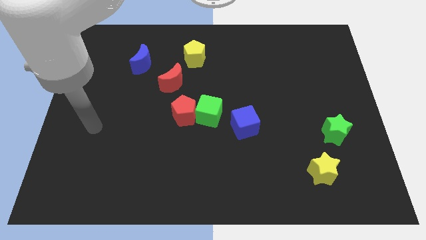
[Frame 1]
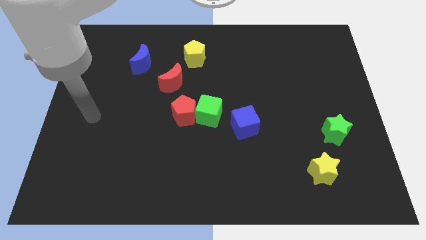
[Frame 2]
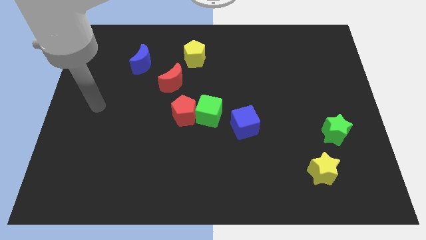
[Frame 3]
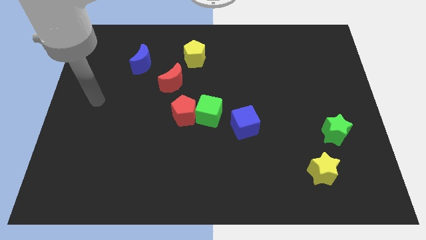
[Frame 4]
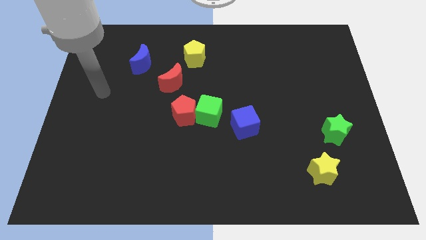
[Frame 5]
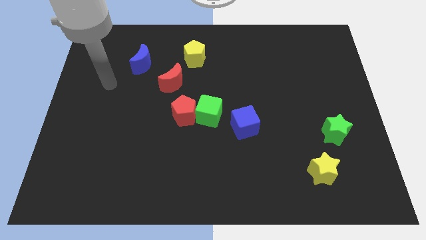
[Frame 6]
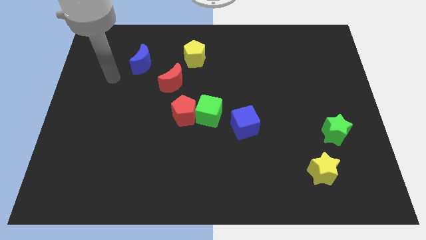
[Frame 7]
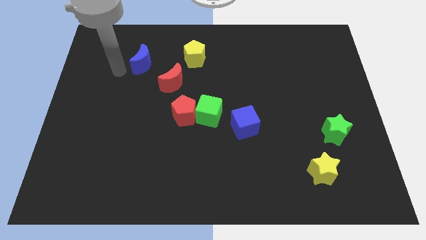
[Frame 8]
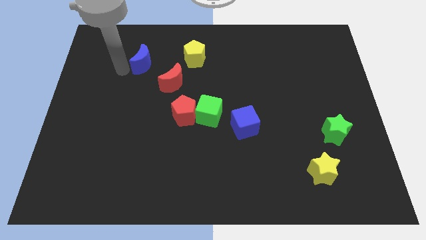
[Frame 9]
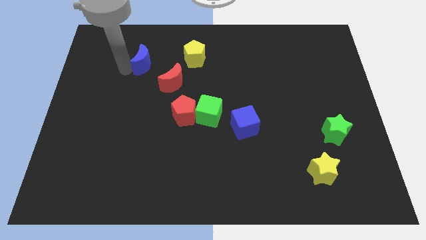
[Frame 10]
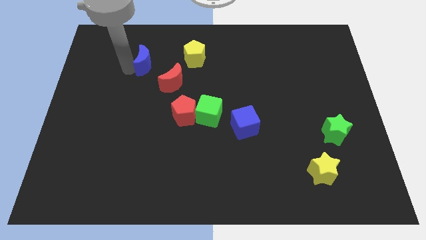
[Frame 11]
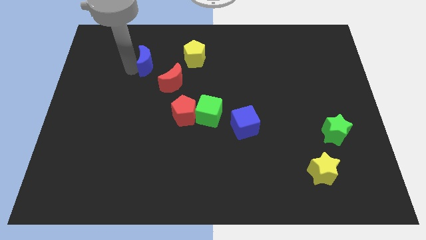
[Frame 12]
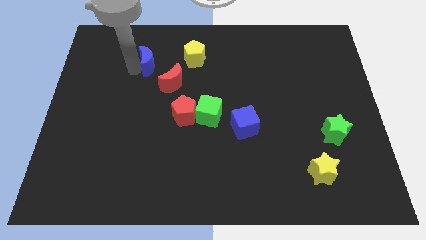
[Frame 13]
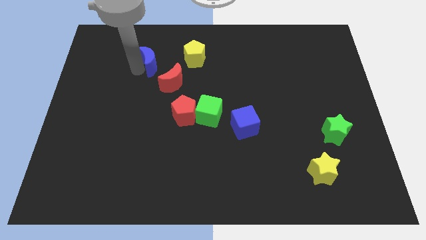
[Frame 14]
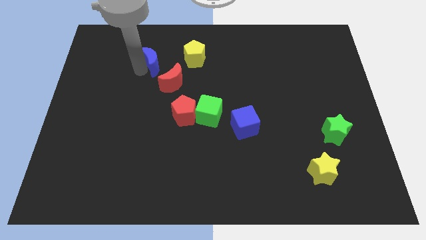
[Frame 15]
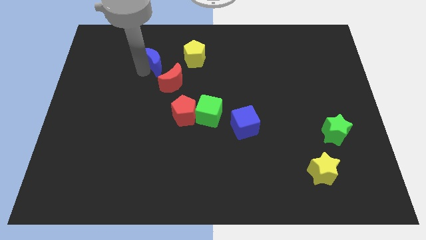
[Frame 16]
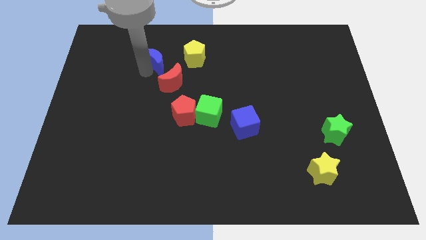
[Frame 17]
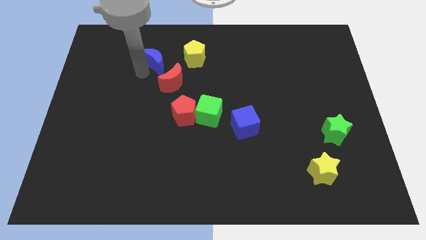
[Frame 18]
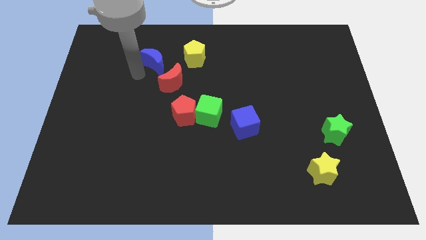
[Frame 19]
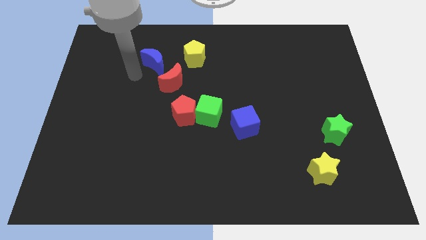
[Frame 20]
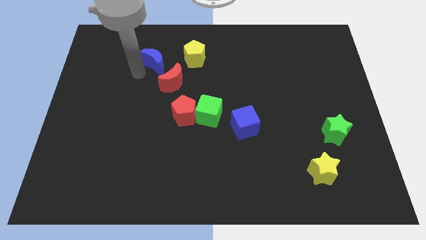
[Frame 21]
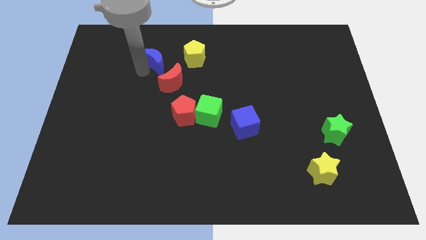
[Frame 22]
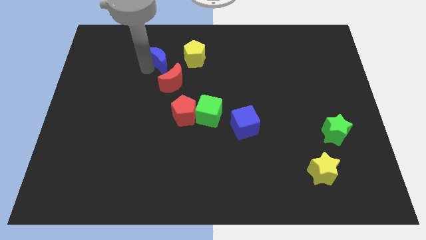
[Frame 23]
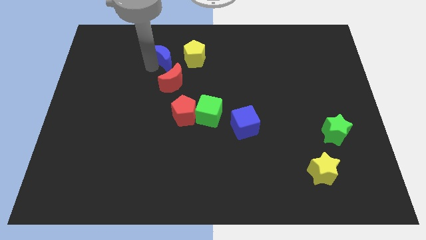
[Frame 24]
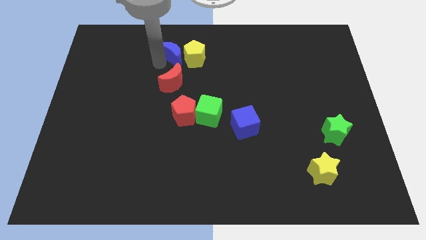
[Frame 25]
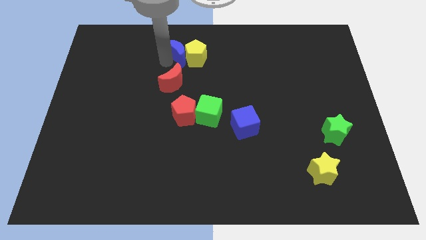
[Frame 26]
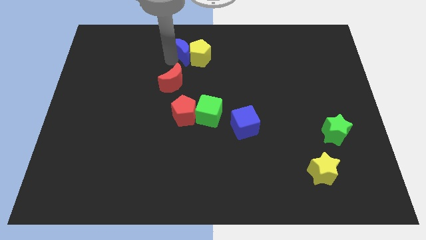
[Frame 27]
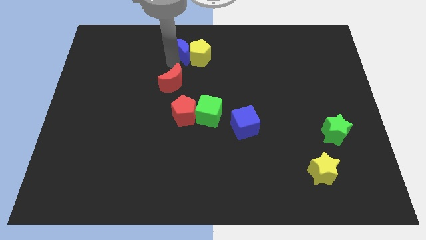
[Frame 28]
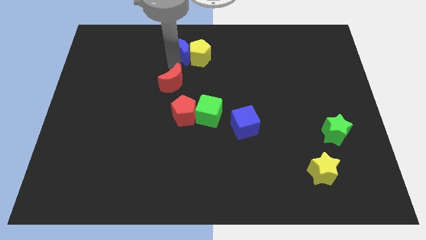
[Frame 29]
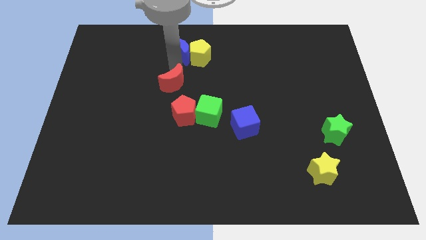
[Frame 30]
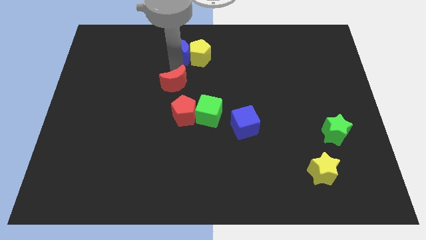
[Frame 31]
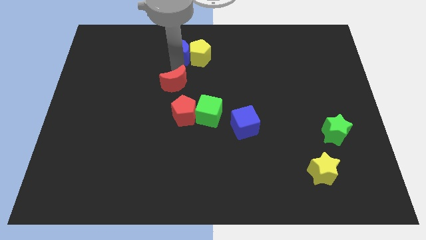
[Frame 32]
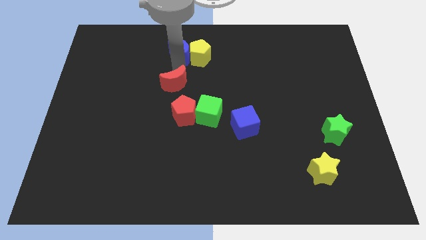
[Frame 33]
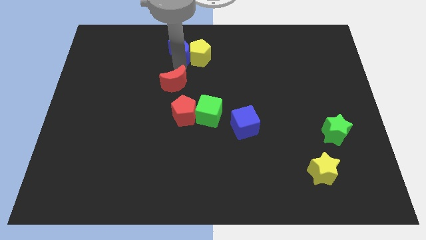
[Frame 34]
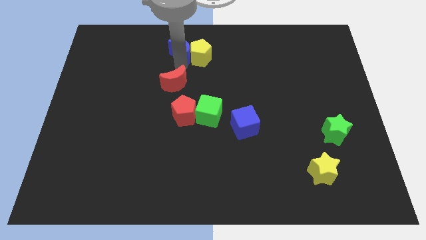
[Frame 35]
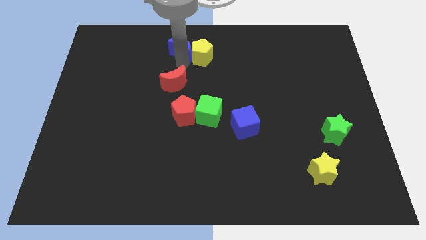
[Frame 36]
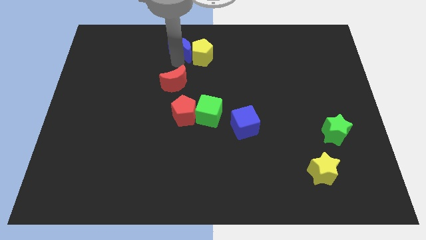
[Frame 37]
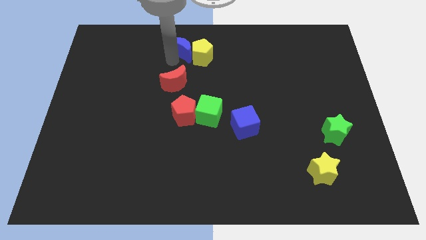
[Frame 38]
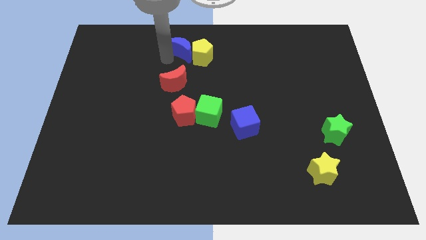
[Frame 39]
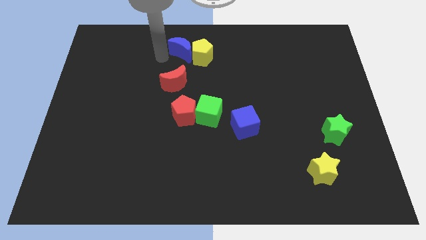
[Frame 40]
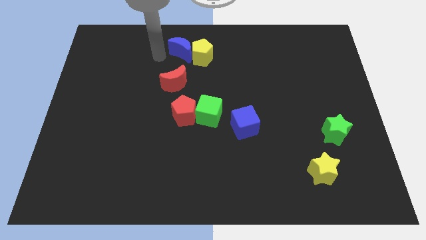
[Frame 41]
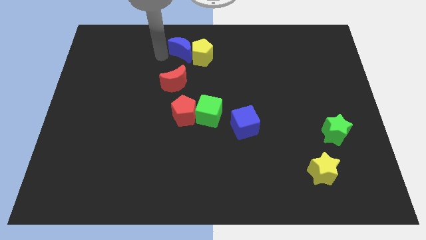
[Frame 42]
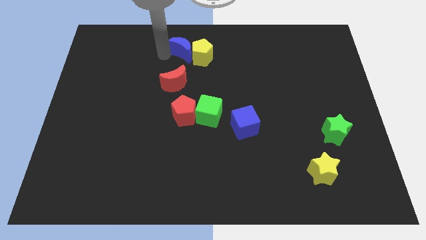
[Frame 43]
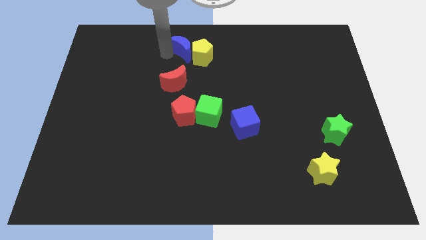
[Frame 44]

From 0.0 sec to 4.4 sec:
push the blue moon to the top

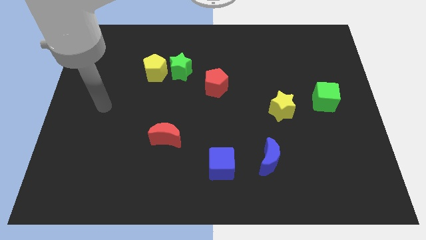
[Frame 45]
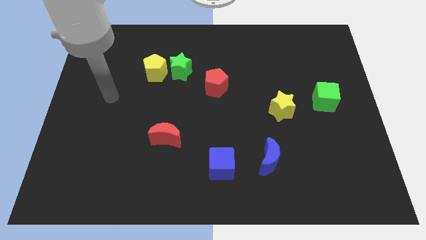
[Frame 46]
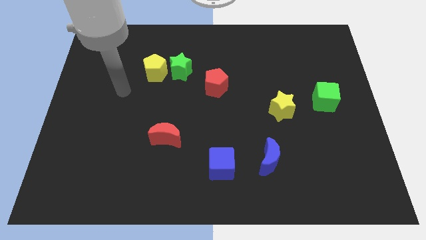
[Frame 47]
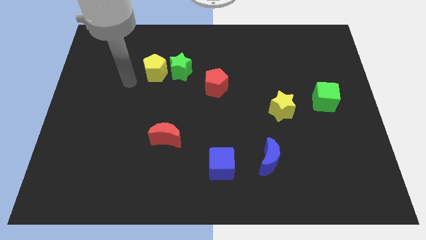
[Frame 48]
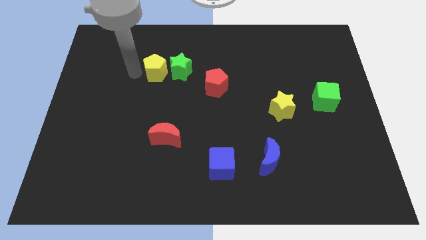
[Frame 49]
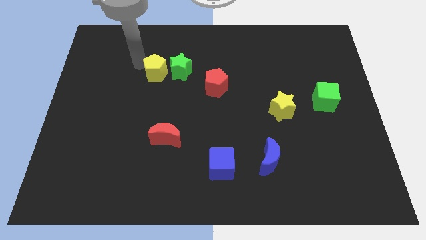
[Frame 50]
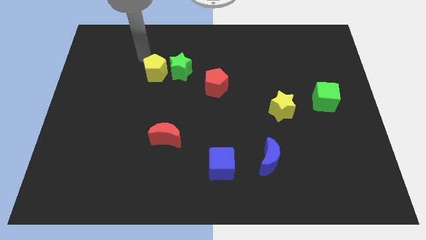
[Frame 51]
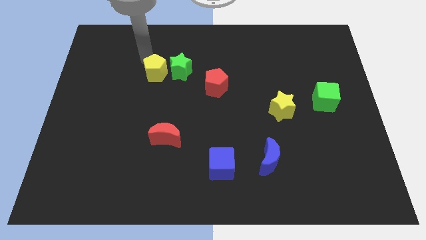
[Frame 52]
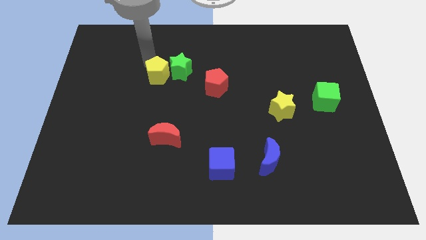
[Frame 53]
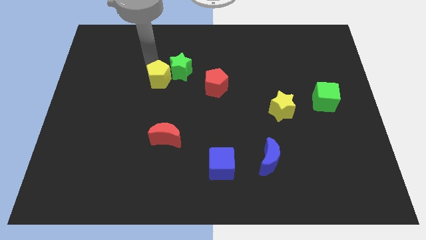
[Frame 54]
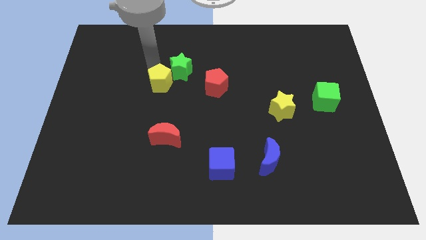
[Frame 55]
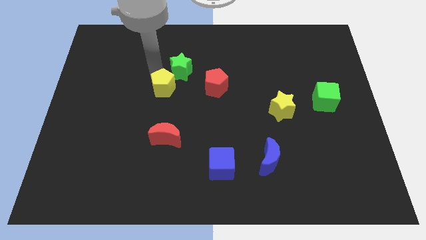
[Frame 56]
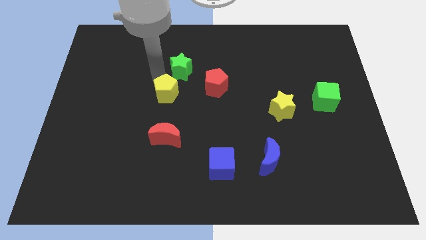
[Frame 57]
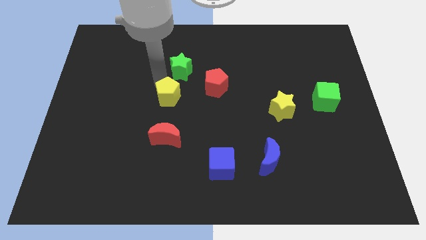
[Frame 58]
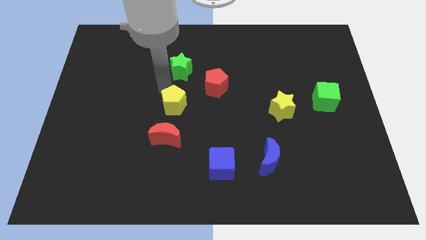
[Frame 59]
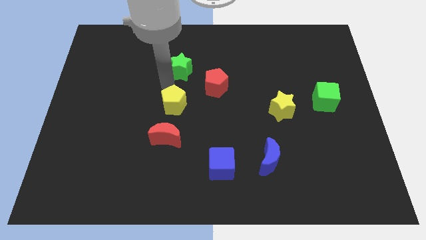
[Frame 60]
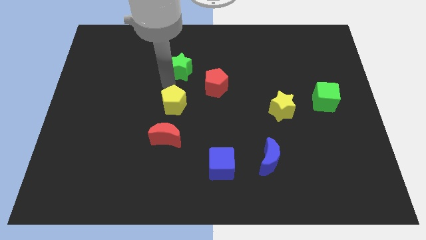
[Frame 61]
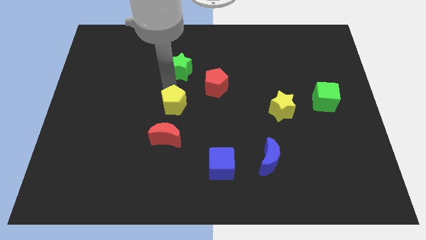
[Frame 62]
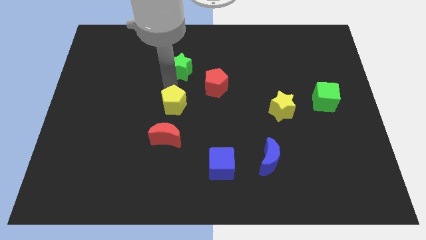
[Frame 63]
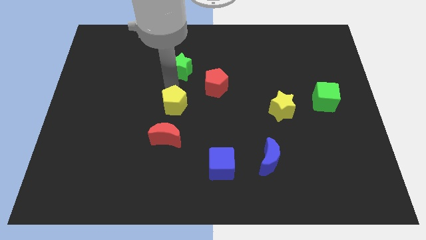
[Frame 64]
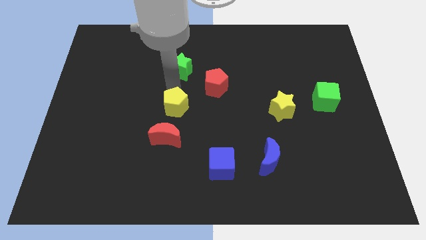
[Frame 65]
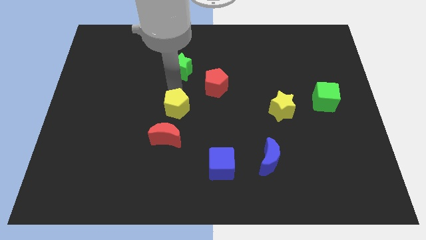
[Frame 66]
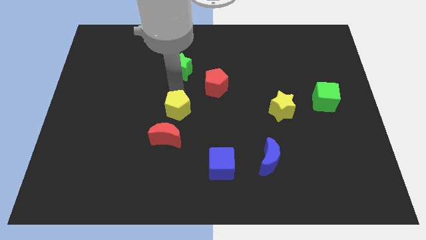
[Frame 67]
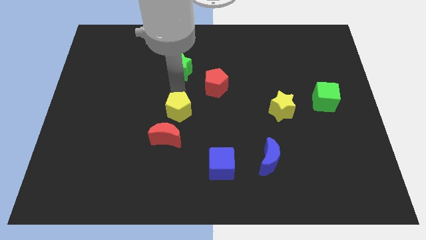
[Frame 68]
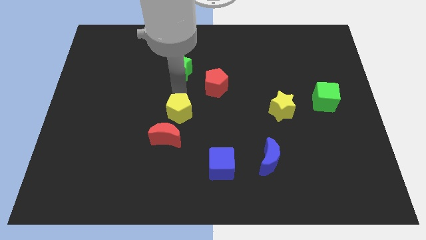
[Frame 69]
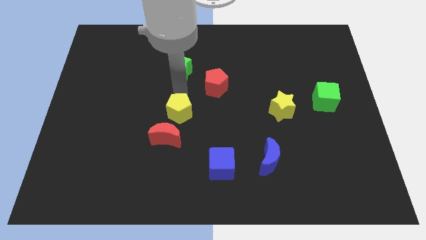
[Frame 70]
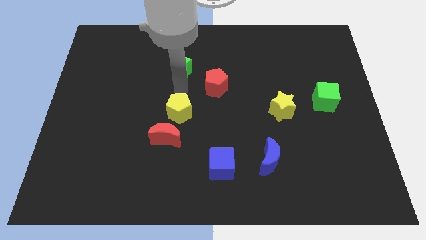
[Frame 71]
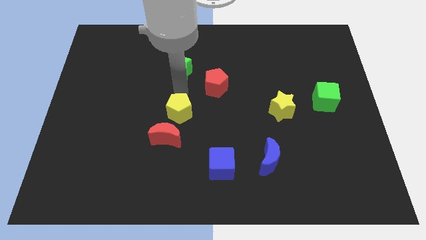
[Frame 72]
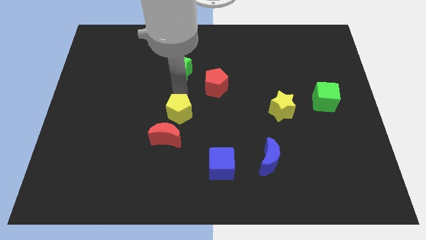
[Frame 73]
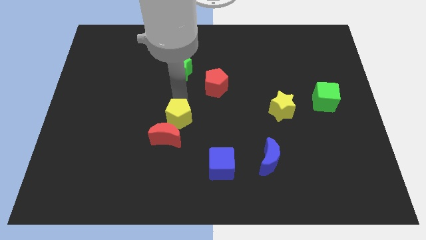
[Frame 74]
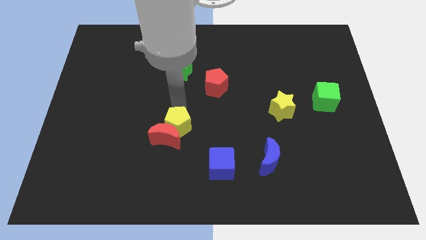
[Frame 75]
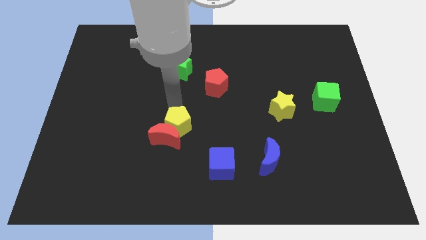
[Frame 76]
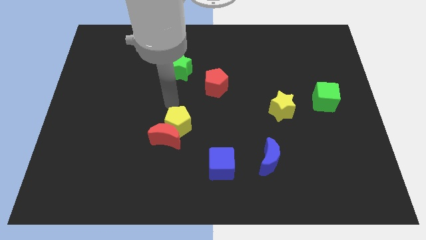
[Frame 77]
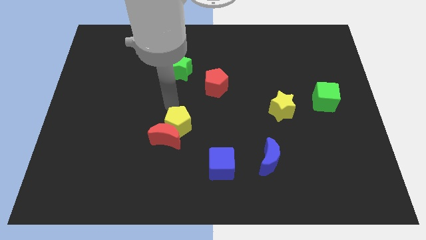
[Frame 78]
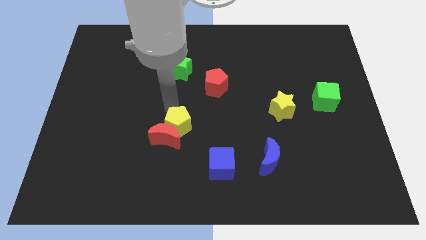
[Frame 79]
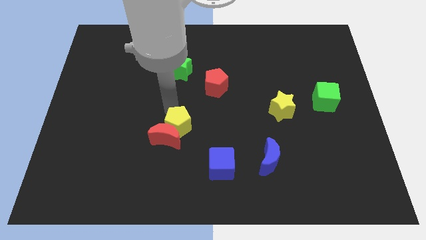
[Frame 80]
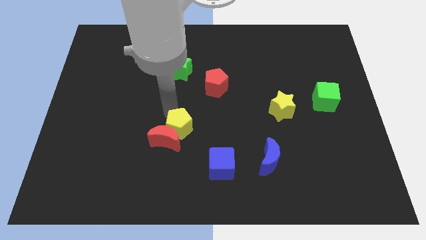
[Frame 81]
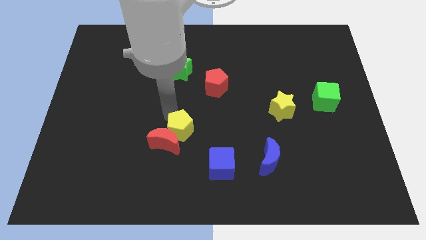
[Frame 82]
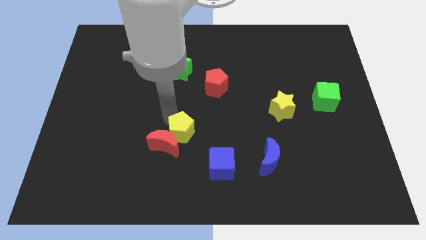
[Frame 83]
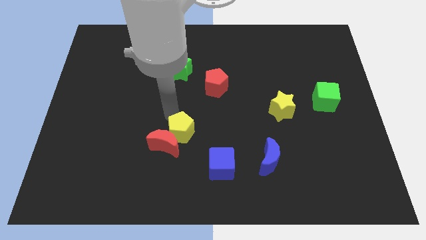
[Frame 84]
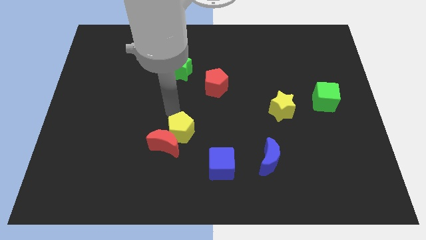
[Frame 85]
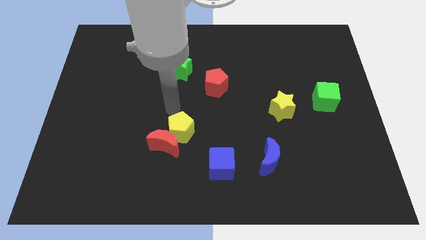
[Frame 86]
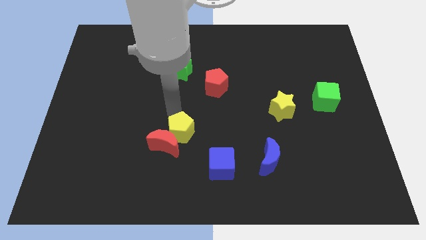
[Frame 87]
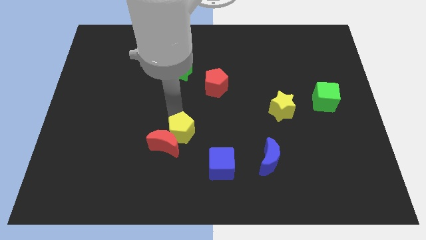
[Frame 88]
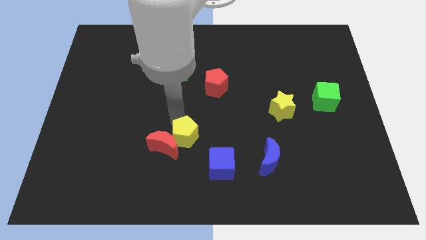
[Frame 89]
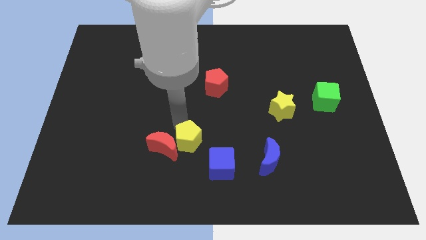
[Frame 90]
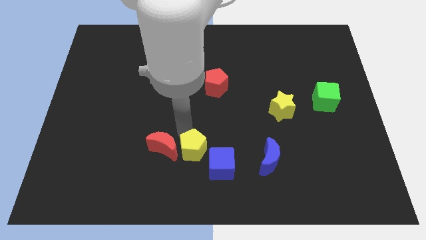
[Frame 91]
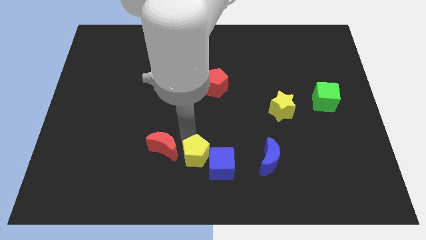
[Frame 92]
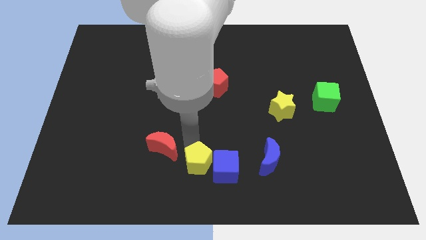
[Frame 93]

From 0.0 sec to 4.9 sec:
slide the yellow pentagon to the bottom
